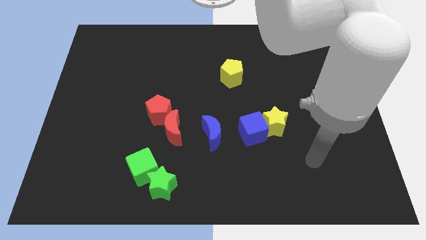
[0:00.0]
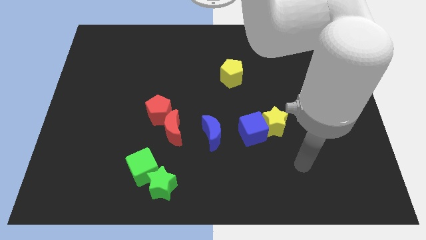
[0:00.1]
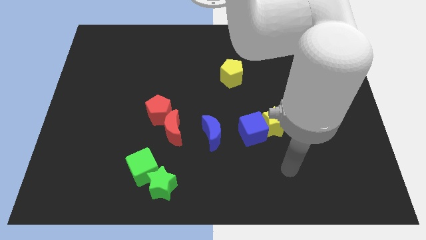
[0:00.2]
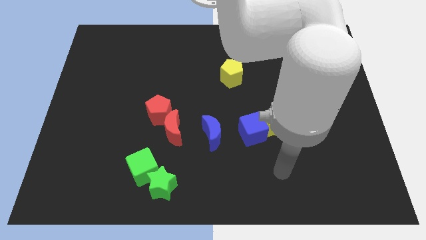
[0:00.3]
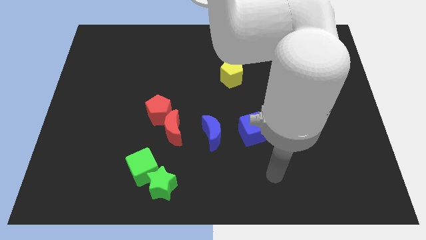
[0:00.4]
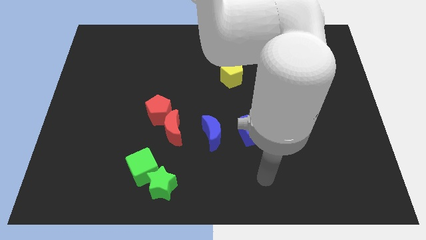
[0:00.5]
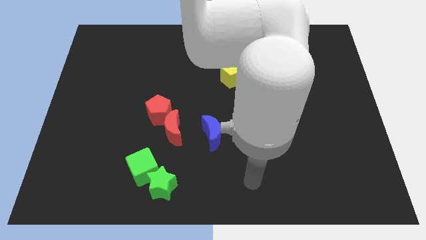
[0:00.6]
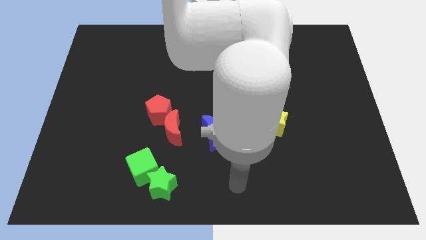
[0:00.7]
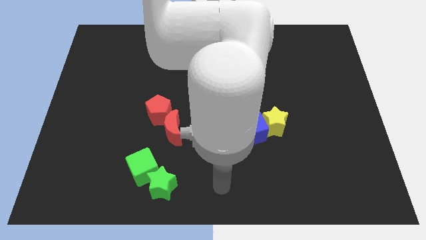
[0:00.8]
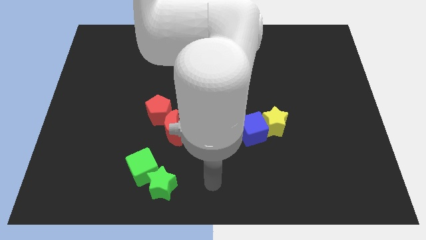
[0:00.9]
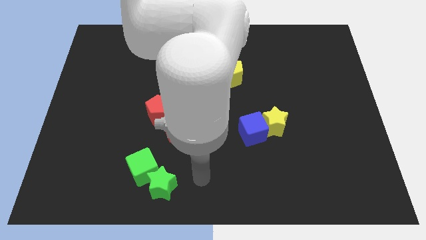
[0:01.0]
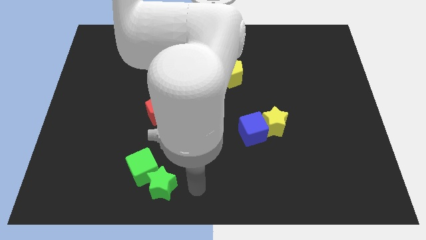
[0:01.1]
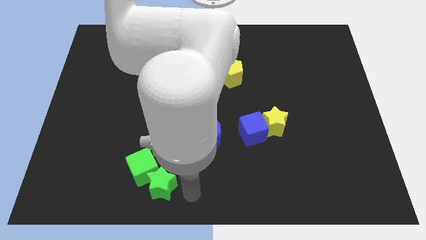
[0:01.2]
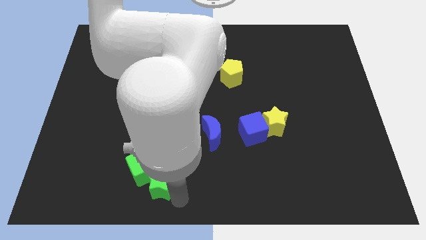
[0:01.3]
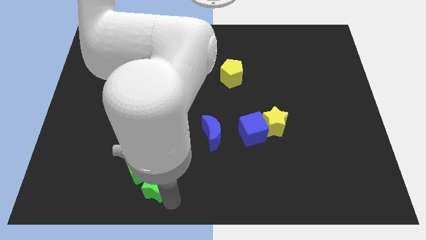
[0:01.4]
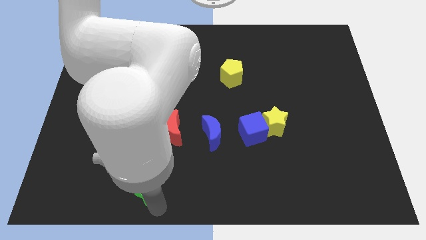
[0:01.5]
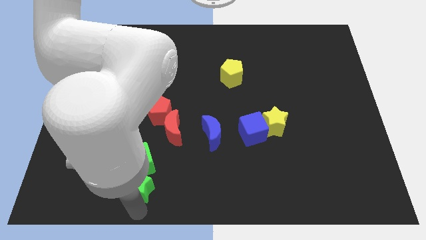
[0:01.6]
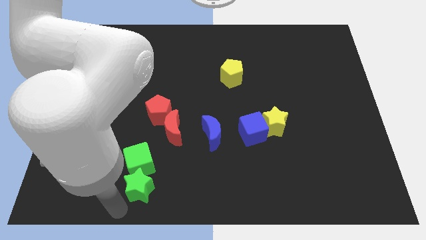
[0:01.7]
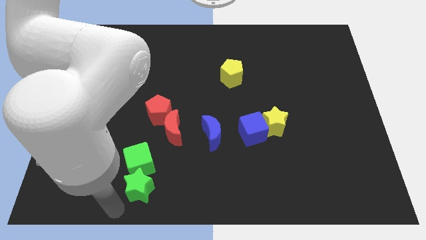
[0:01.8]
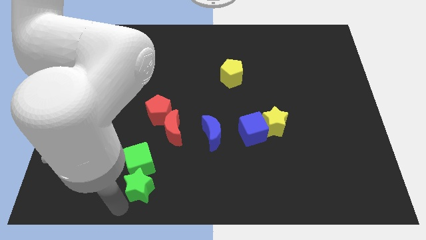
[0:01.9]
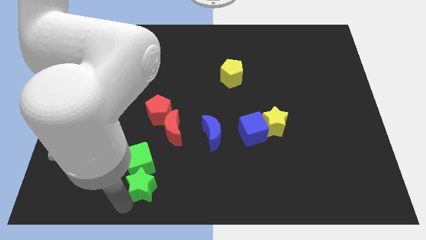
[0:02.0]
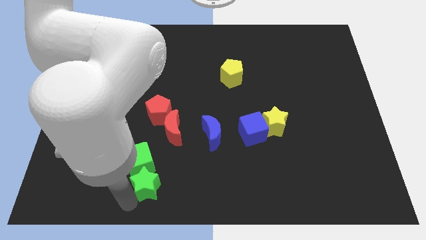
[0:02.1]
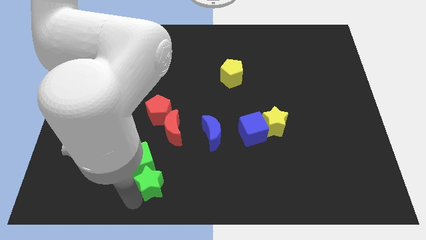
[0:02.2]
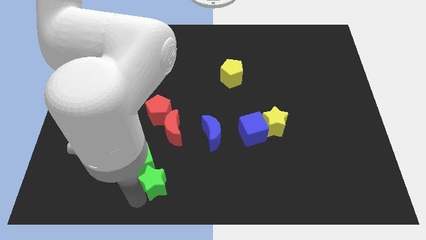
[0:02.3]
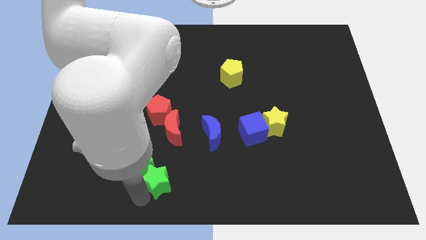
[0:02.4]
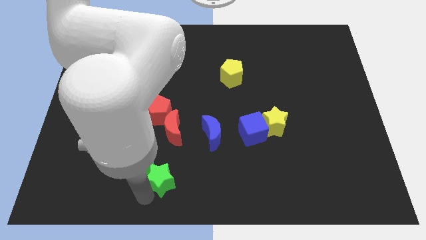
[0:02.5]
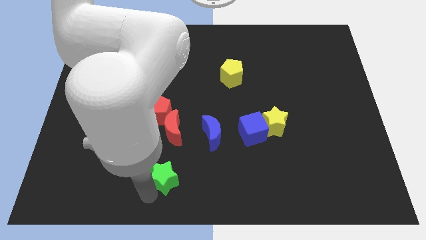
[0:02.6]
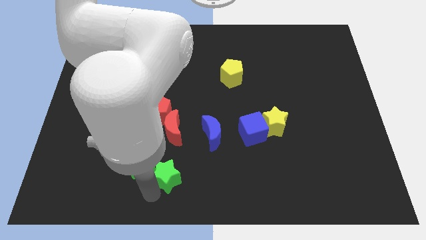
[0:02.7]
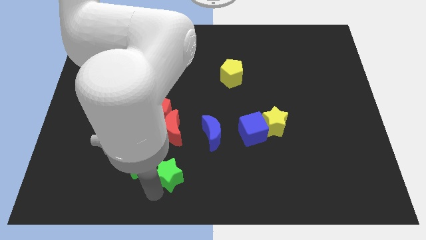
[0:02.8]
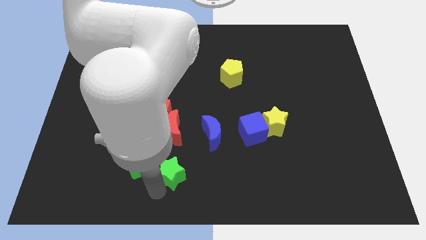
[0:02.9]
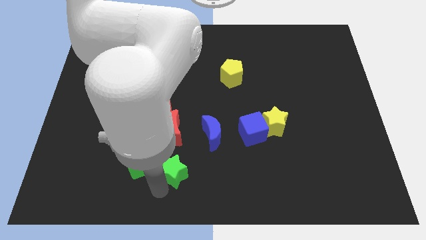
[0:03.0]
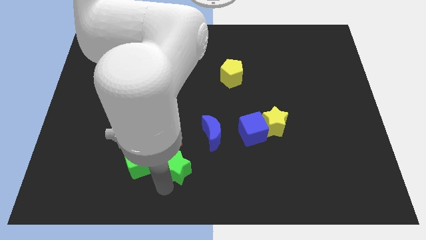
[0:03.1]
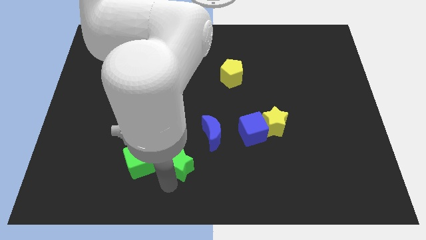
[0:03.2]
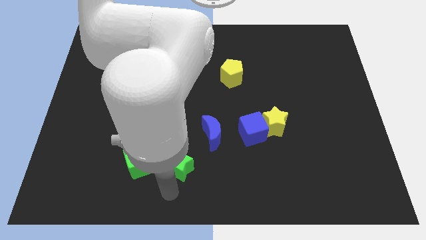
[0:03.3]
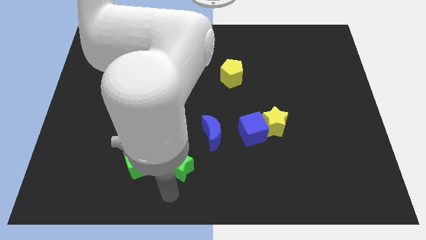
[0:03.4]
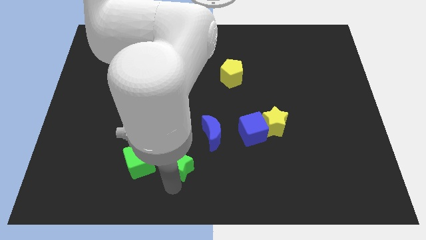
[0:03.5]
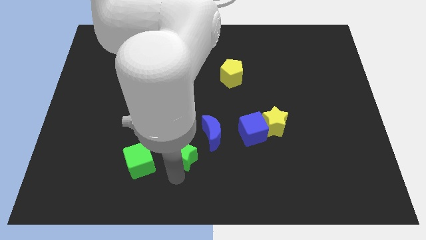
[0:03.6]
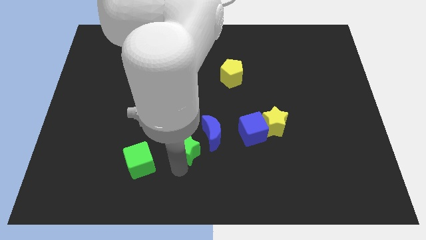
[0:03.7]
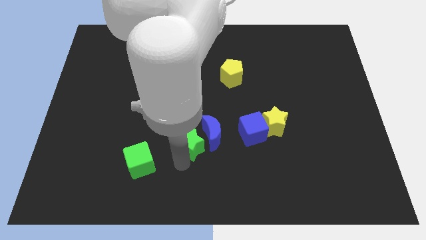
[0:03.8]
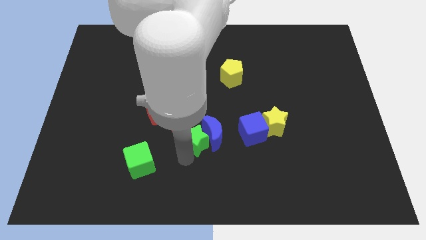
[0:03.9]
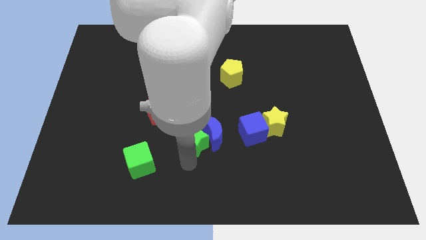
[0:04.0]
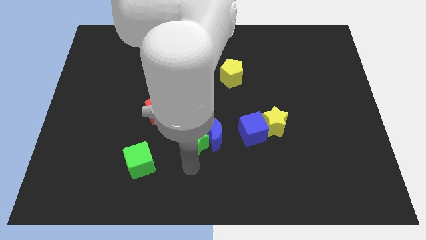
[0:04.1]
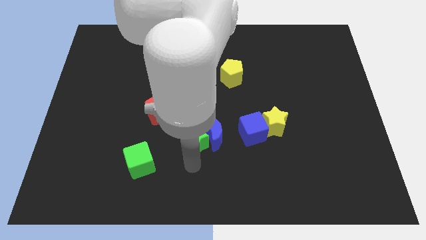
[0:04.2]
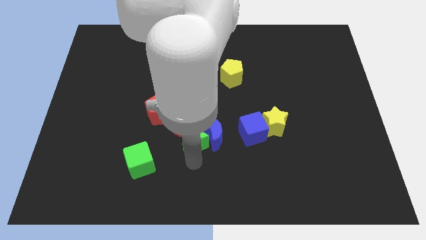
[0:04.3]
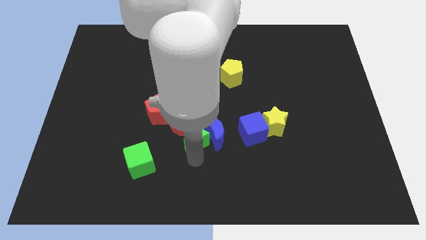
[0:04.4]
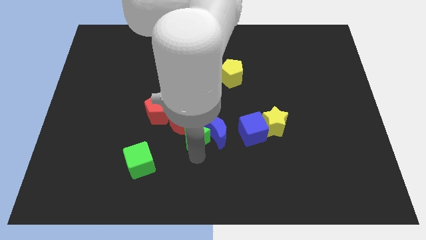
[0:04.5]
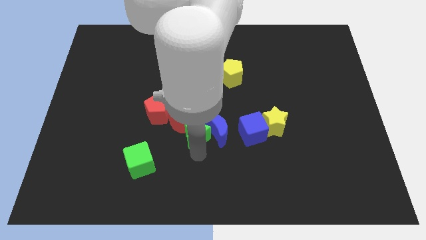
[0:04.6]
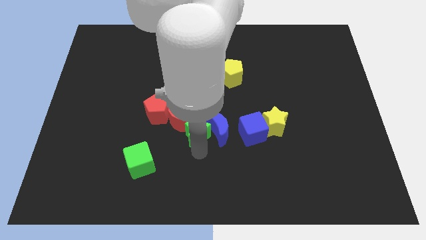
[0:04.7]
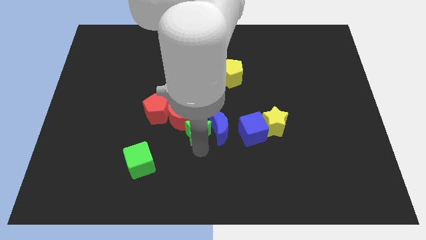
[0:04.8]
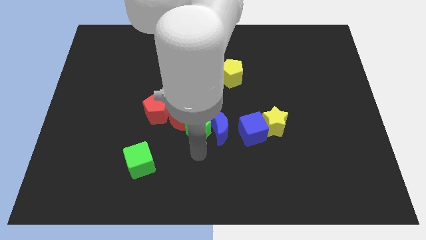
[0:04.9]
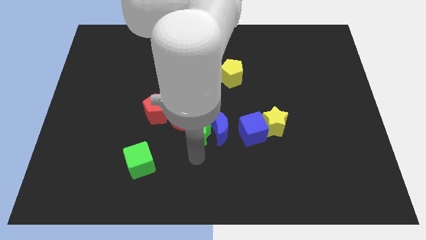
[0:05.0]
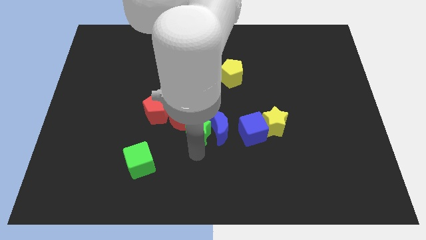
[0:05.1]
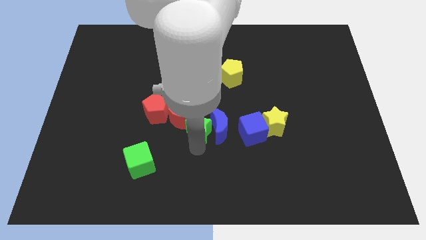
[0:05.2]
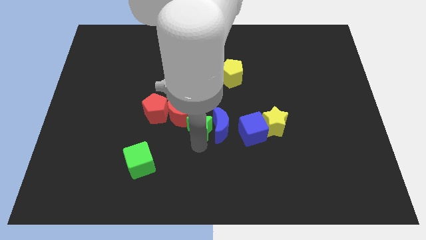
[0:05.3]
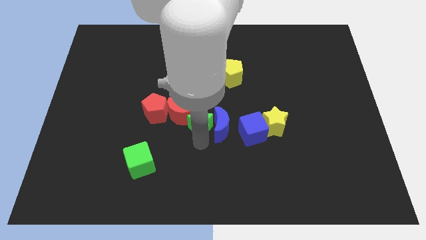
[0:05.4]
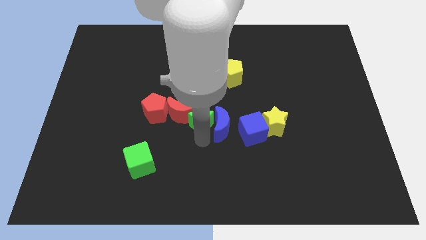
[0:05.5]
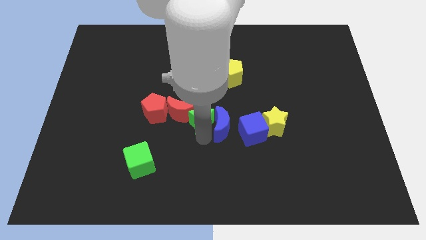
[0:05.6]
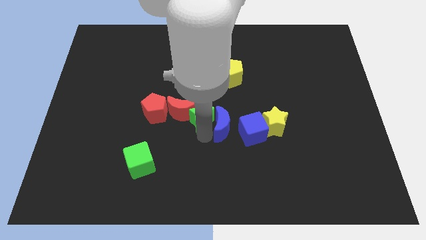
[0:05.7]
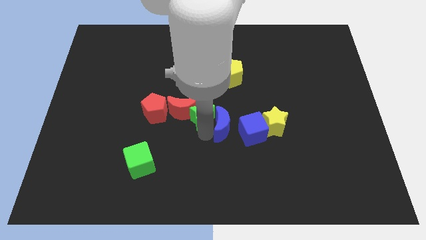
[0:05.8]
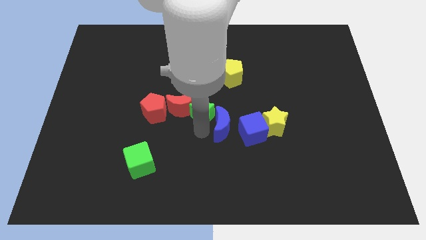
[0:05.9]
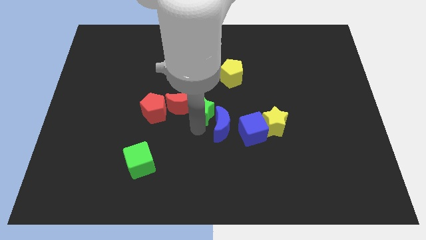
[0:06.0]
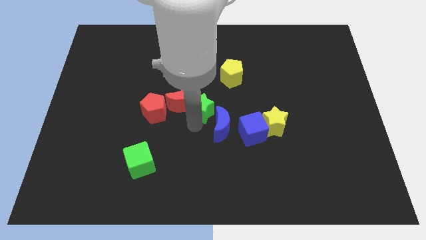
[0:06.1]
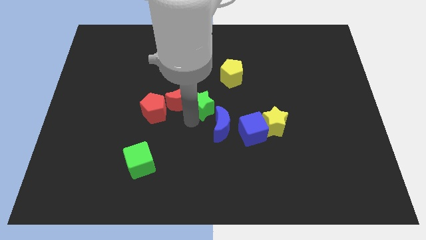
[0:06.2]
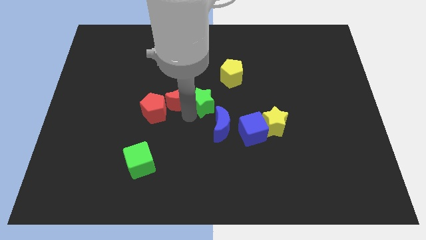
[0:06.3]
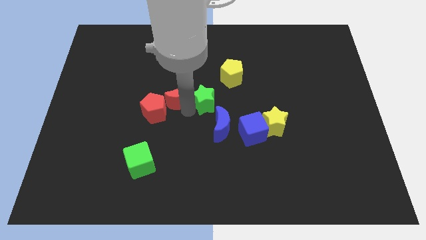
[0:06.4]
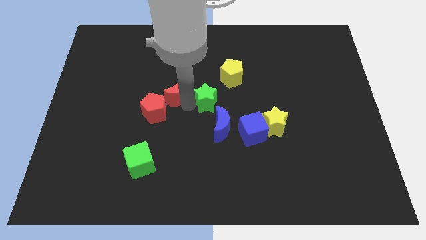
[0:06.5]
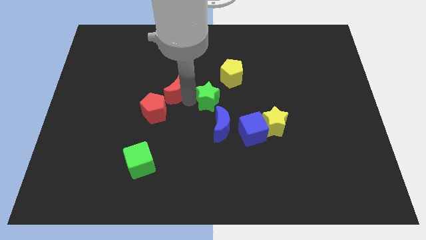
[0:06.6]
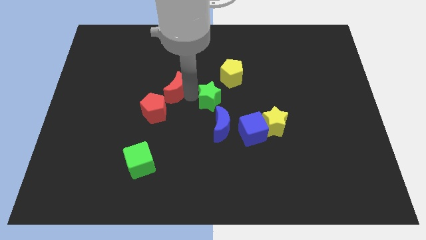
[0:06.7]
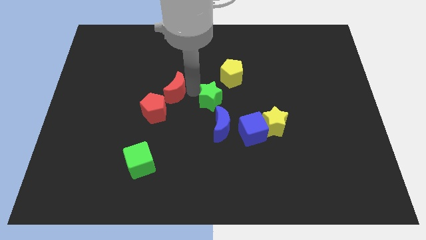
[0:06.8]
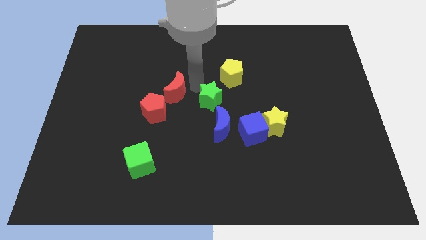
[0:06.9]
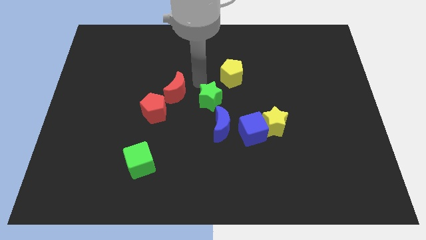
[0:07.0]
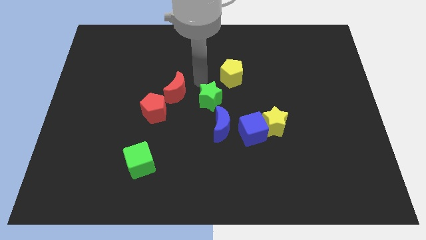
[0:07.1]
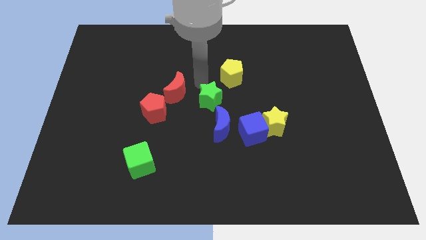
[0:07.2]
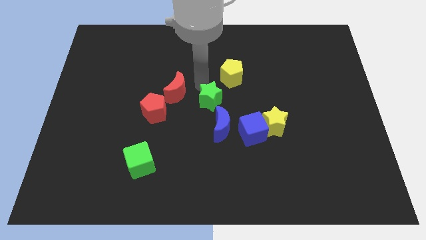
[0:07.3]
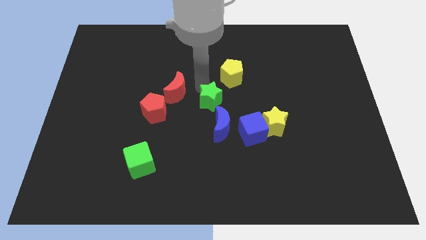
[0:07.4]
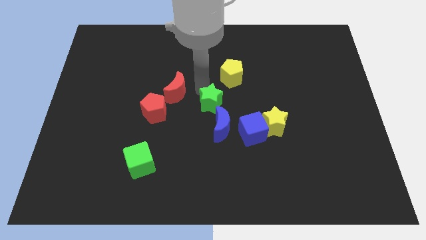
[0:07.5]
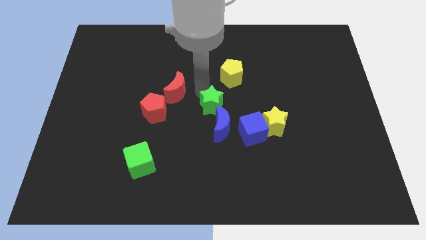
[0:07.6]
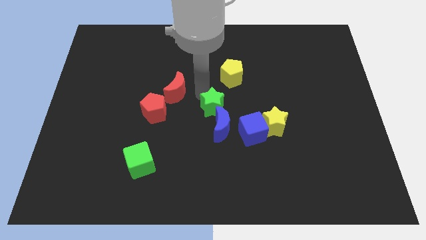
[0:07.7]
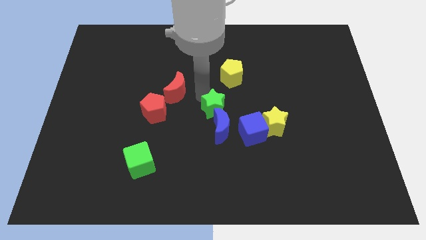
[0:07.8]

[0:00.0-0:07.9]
move the green star upwards and right diagonally

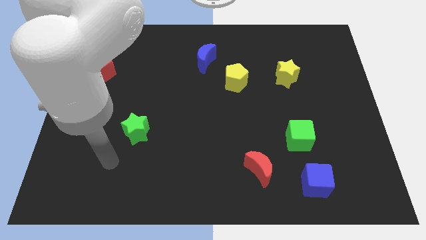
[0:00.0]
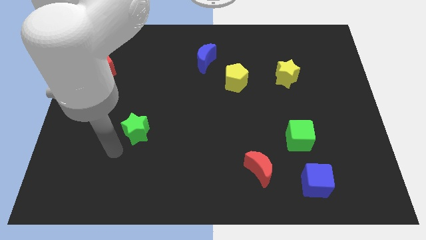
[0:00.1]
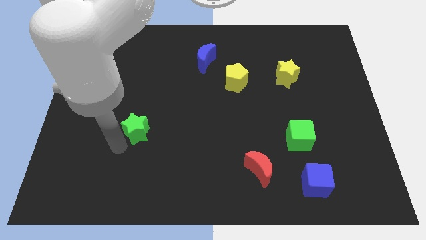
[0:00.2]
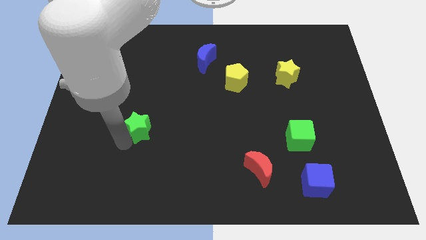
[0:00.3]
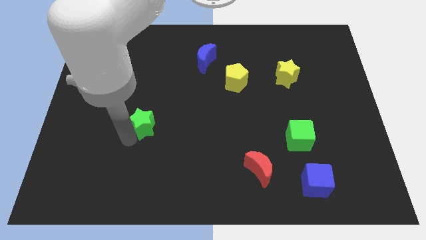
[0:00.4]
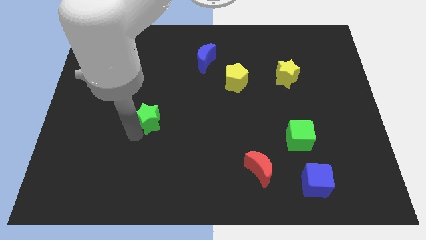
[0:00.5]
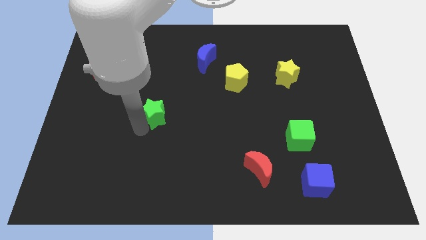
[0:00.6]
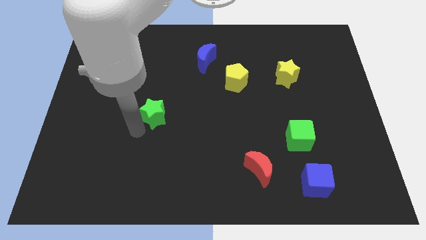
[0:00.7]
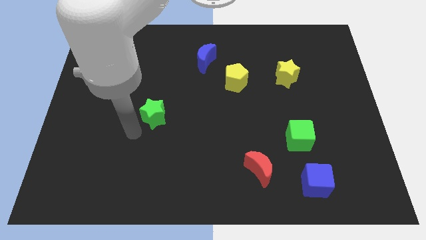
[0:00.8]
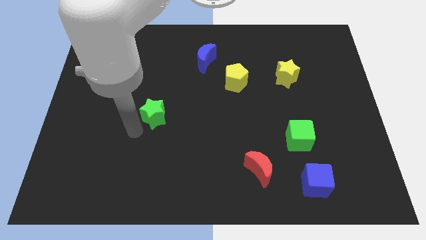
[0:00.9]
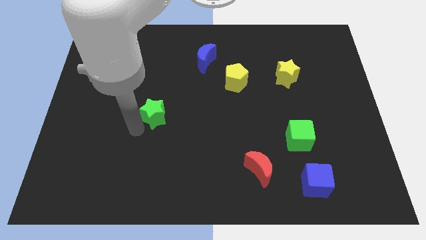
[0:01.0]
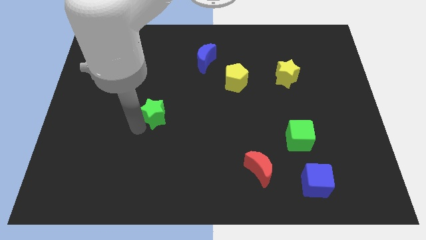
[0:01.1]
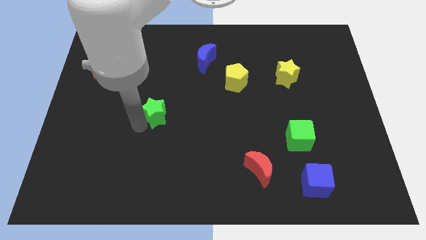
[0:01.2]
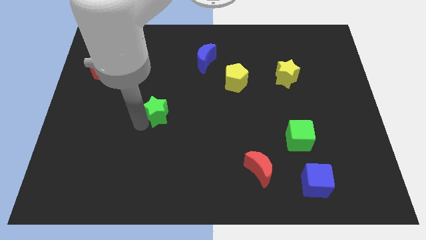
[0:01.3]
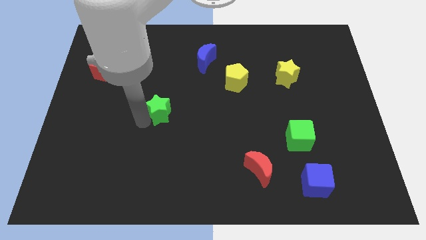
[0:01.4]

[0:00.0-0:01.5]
slide the green star up and then right slightly
